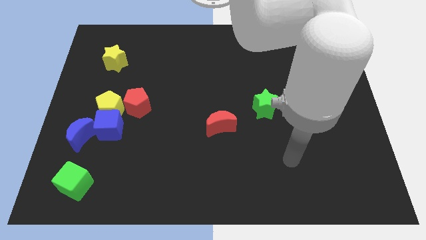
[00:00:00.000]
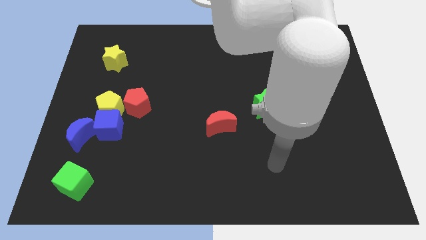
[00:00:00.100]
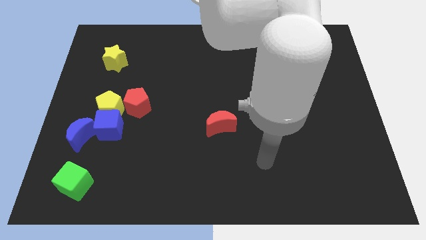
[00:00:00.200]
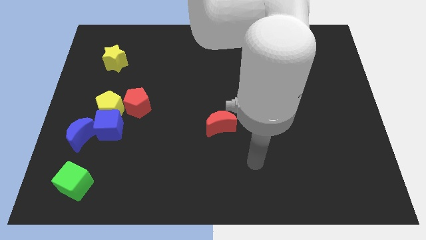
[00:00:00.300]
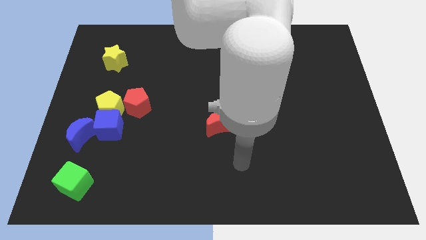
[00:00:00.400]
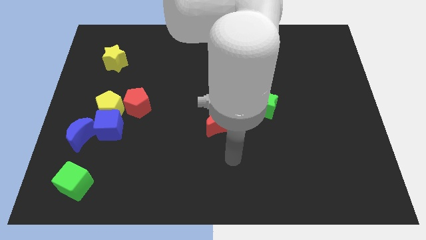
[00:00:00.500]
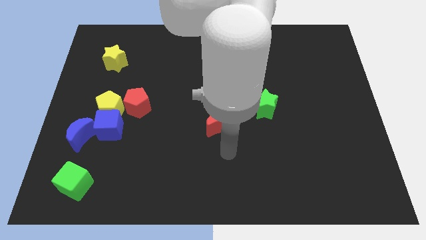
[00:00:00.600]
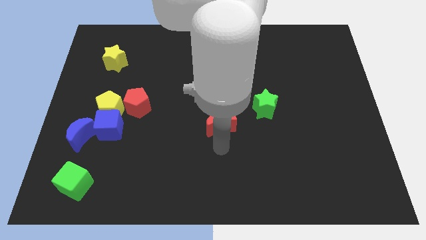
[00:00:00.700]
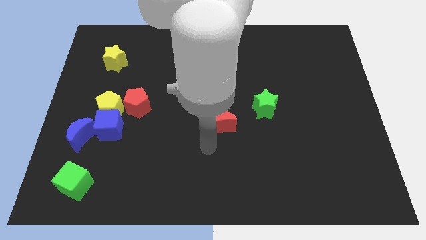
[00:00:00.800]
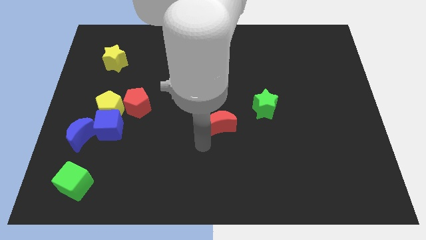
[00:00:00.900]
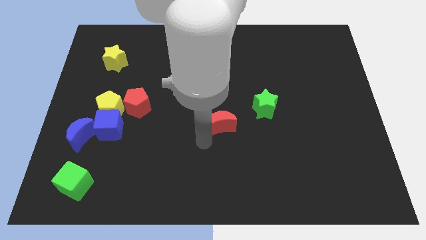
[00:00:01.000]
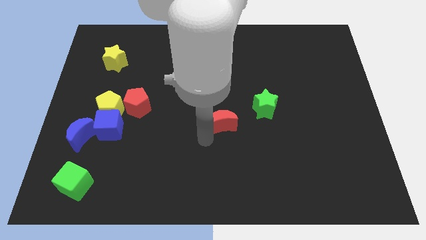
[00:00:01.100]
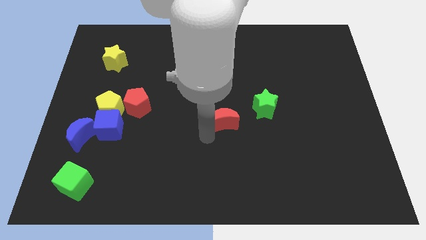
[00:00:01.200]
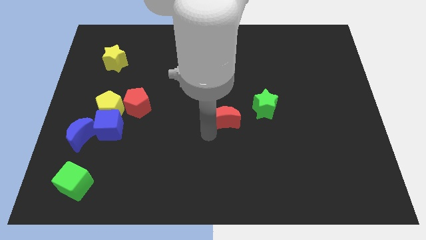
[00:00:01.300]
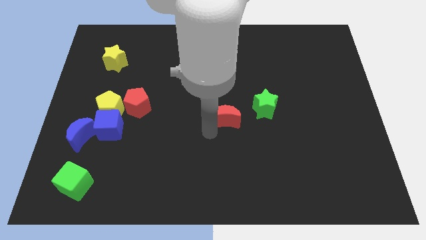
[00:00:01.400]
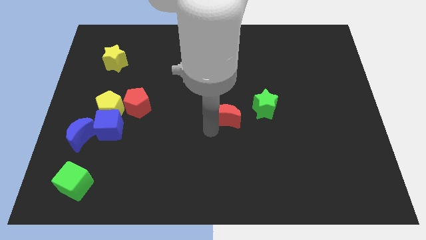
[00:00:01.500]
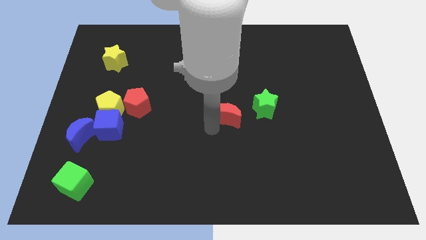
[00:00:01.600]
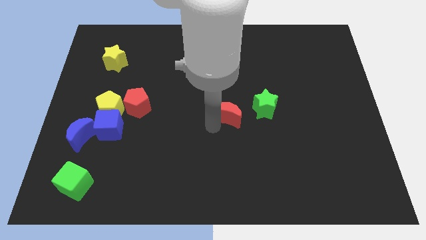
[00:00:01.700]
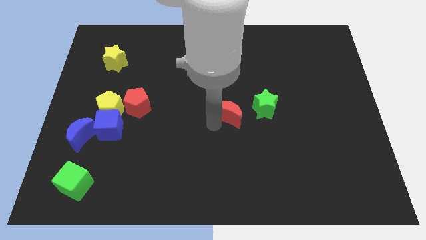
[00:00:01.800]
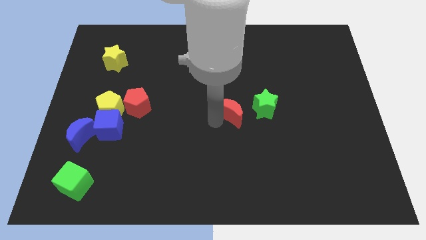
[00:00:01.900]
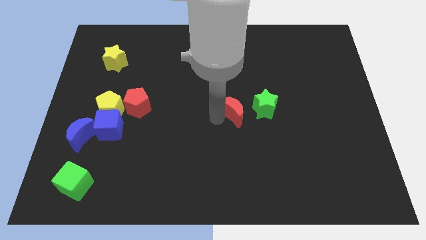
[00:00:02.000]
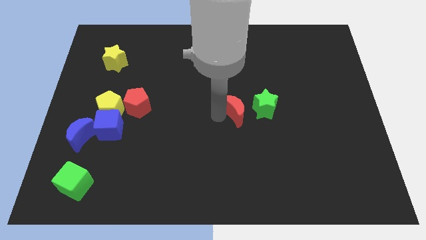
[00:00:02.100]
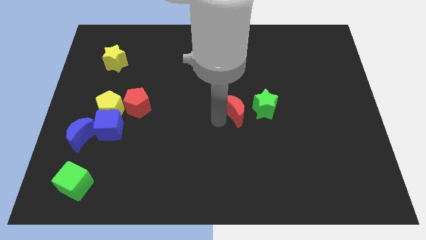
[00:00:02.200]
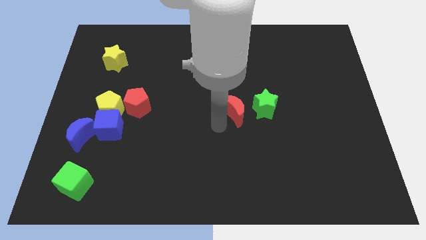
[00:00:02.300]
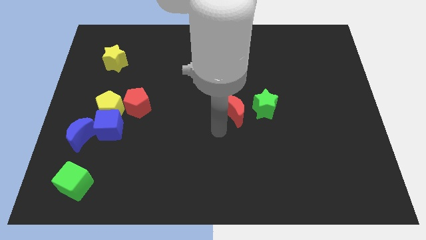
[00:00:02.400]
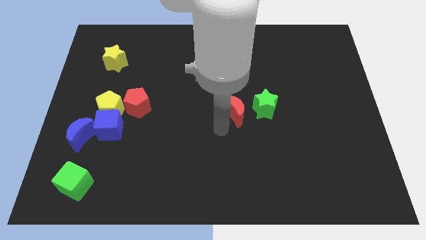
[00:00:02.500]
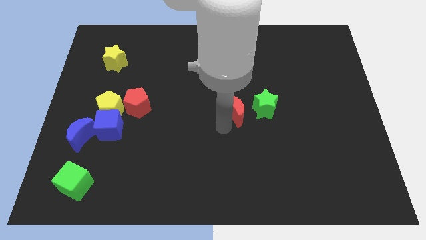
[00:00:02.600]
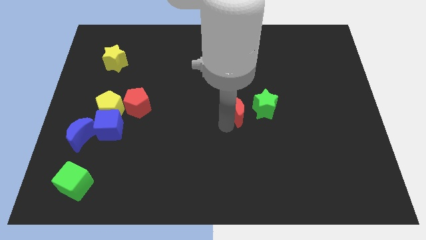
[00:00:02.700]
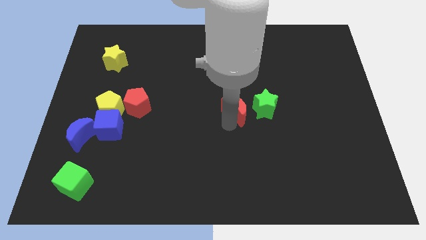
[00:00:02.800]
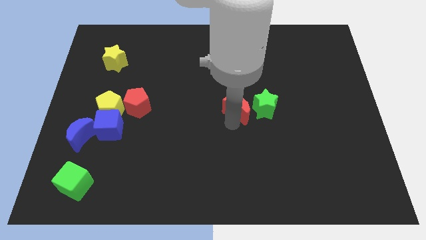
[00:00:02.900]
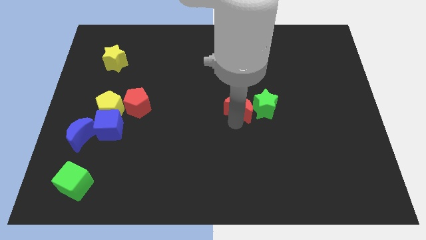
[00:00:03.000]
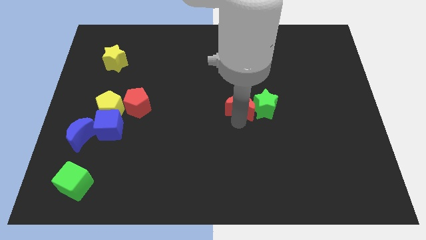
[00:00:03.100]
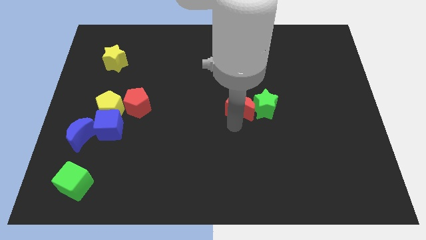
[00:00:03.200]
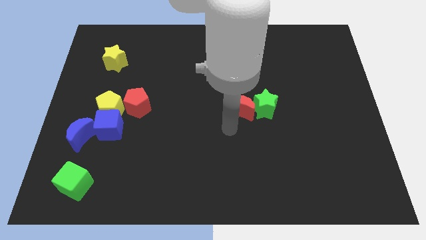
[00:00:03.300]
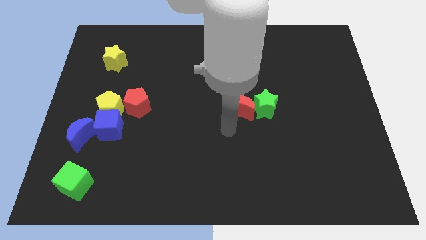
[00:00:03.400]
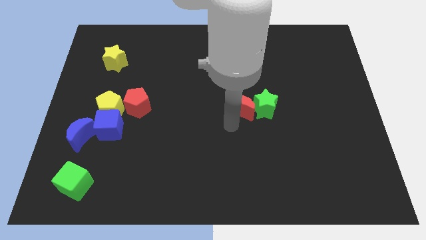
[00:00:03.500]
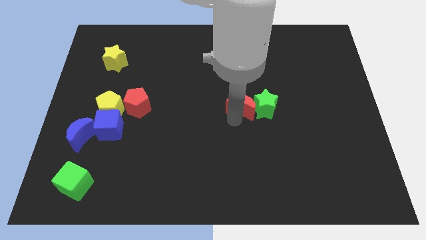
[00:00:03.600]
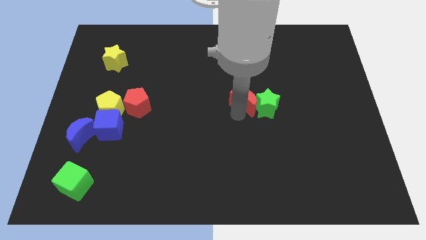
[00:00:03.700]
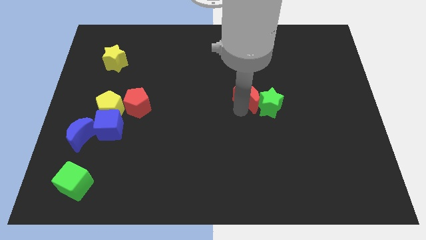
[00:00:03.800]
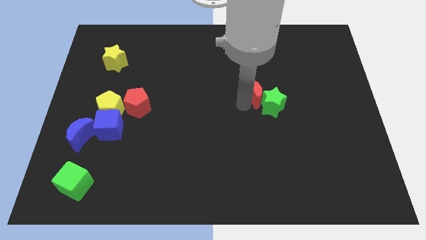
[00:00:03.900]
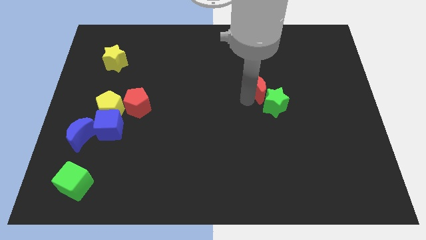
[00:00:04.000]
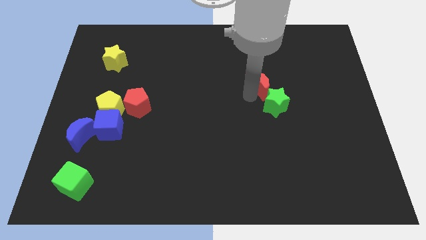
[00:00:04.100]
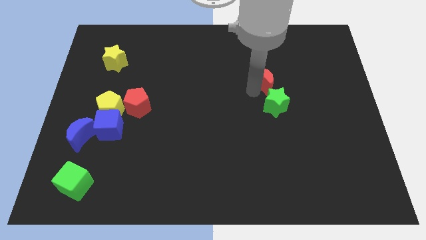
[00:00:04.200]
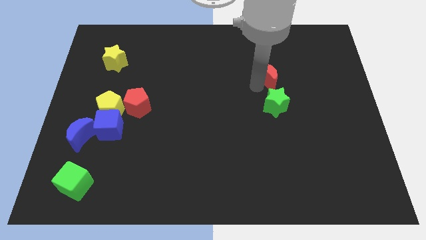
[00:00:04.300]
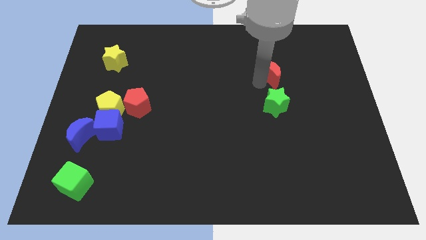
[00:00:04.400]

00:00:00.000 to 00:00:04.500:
move the red moon upwards and then right

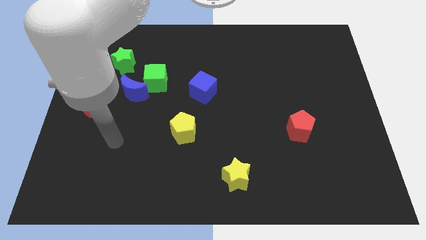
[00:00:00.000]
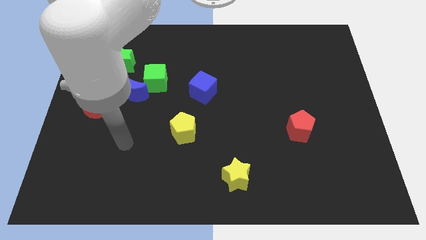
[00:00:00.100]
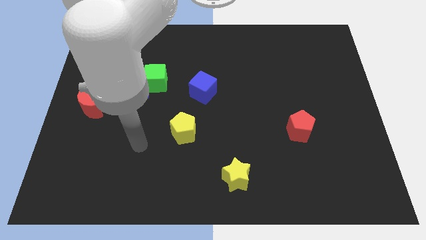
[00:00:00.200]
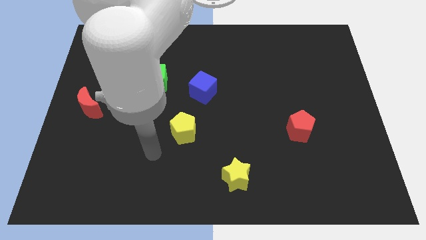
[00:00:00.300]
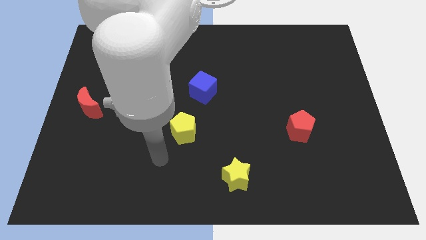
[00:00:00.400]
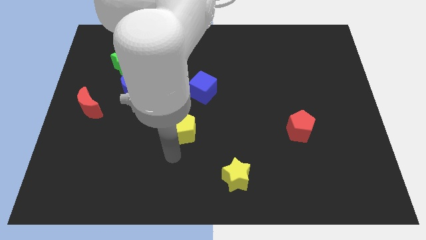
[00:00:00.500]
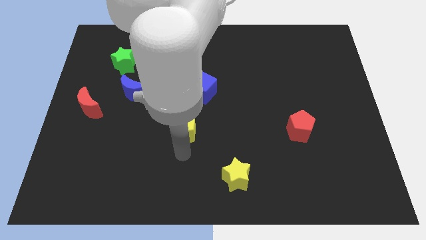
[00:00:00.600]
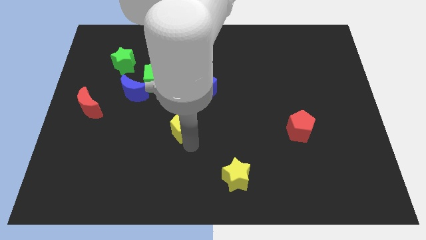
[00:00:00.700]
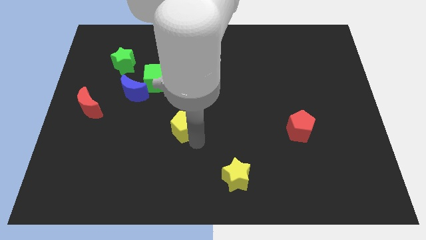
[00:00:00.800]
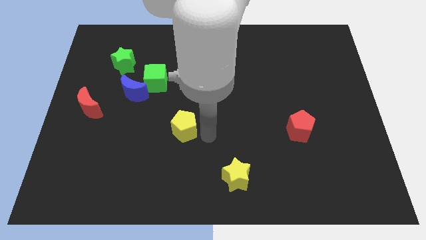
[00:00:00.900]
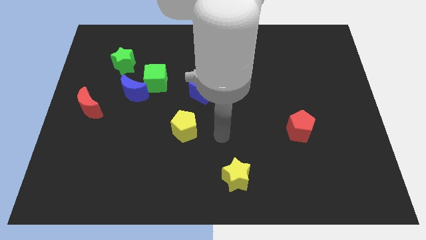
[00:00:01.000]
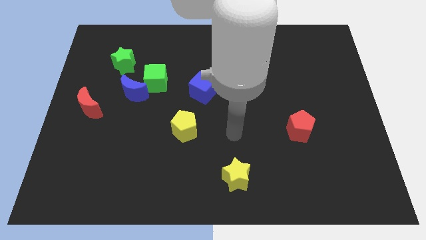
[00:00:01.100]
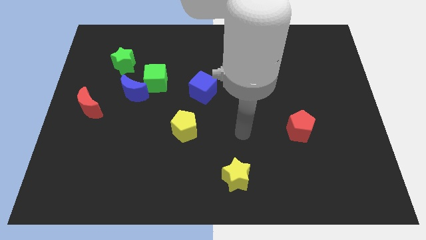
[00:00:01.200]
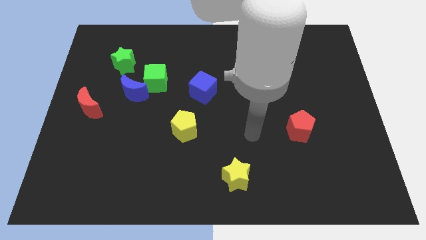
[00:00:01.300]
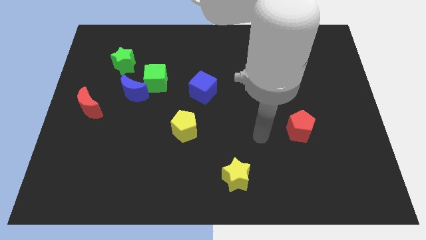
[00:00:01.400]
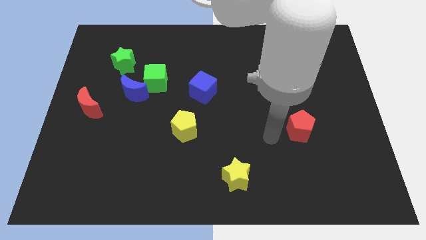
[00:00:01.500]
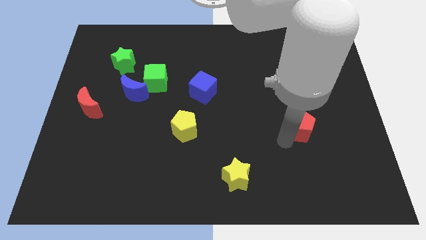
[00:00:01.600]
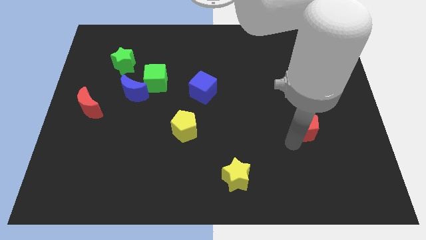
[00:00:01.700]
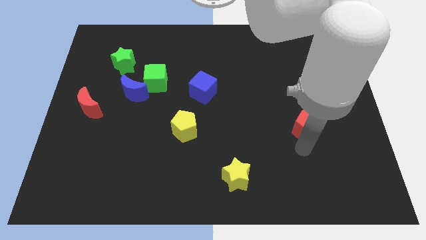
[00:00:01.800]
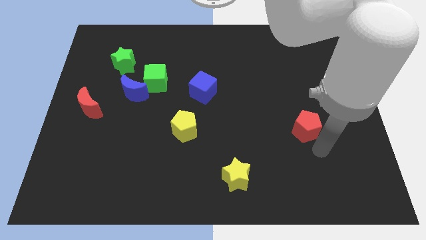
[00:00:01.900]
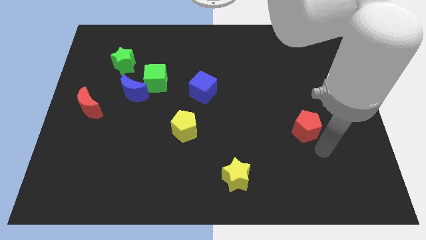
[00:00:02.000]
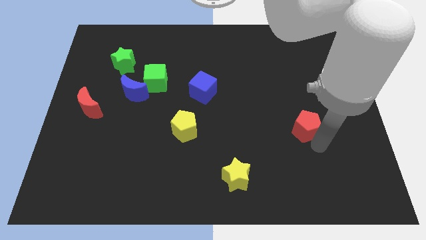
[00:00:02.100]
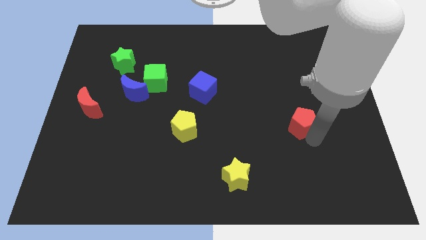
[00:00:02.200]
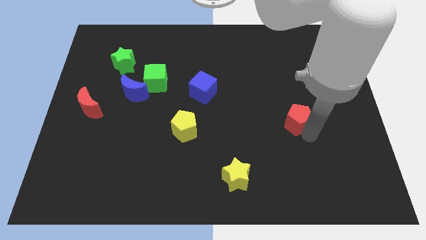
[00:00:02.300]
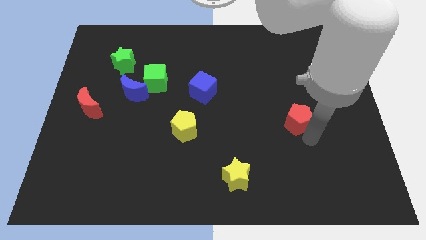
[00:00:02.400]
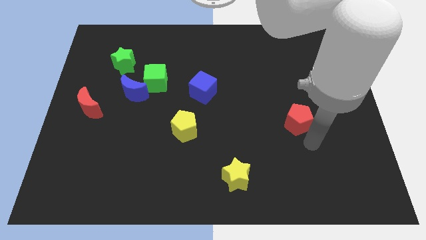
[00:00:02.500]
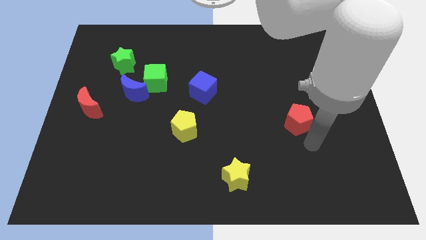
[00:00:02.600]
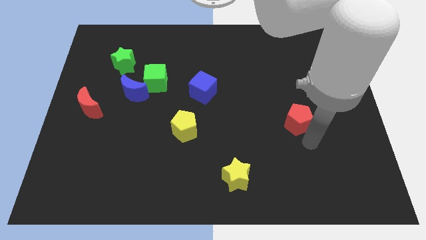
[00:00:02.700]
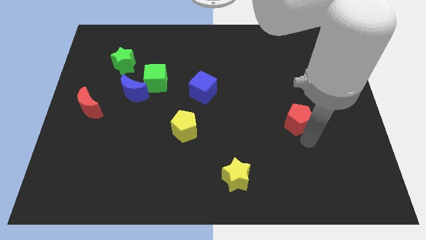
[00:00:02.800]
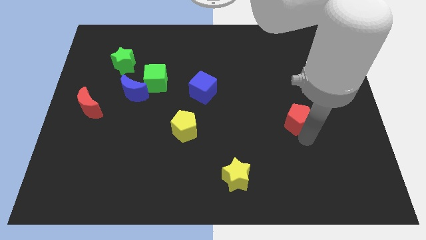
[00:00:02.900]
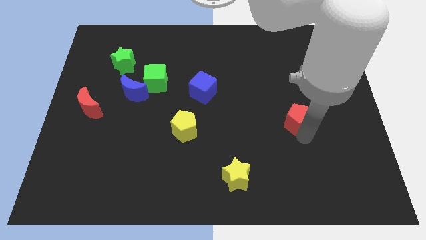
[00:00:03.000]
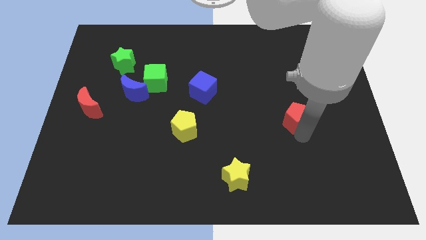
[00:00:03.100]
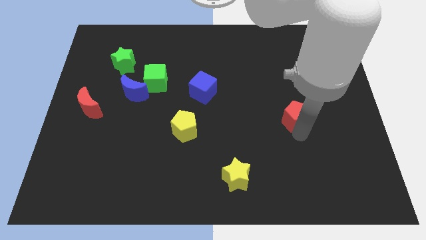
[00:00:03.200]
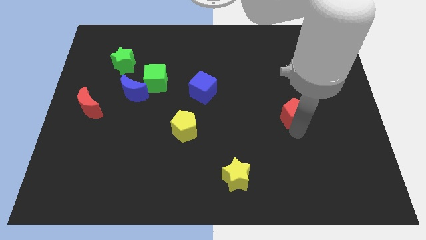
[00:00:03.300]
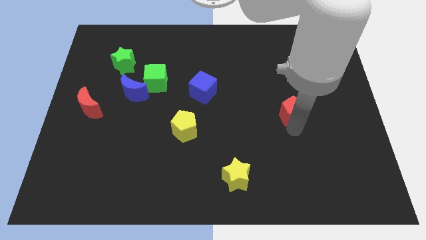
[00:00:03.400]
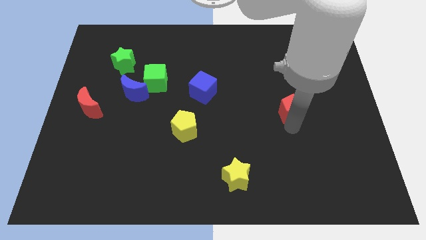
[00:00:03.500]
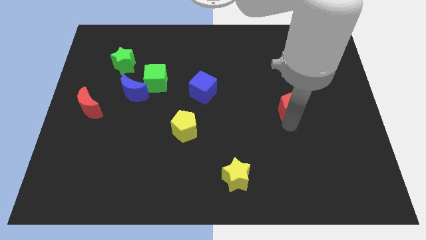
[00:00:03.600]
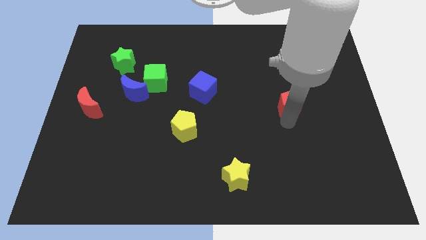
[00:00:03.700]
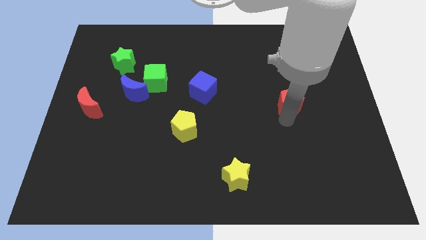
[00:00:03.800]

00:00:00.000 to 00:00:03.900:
move the red pentagon a little bit up
